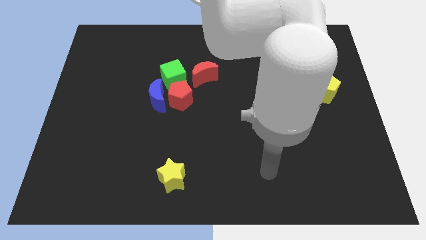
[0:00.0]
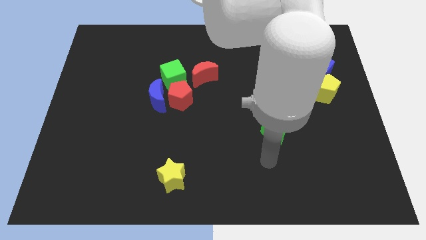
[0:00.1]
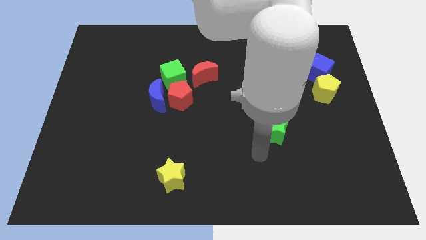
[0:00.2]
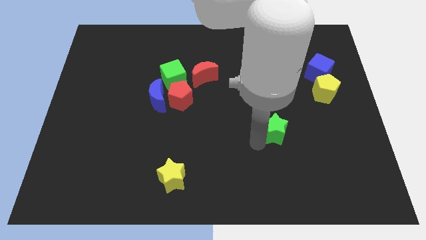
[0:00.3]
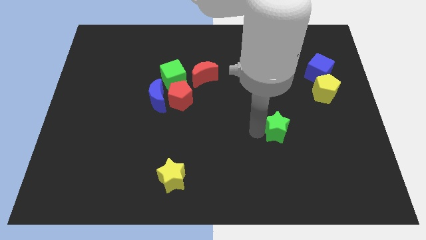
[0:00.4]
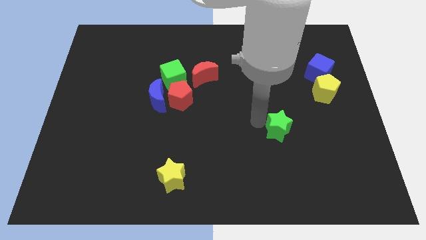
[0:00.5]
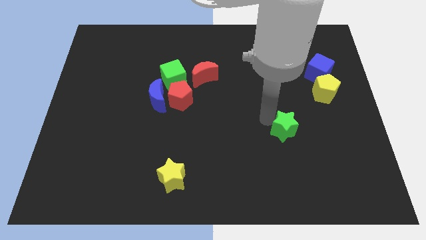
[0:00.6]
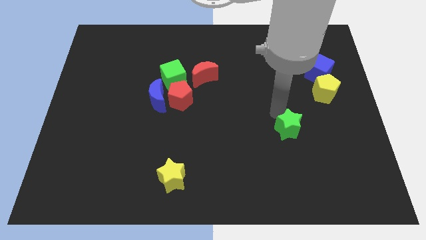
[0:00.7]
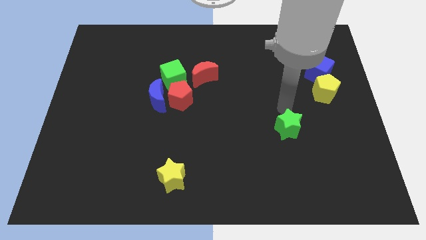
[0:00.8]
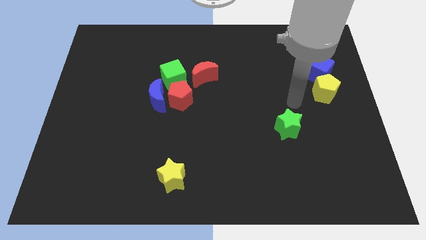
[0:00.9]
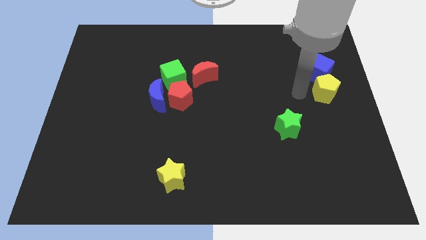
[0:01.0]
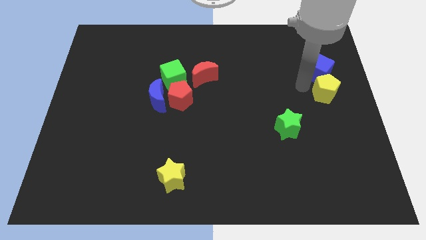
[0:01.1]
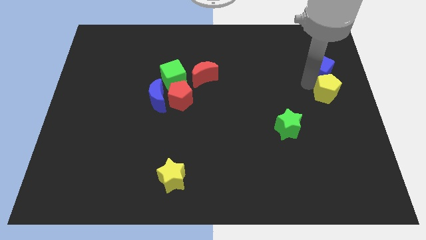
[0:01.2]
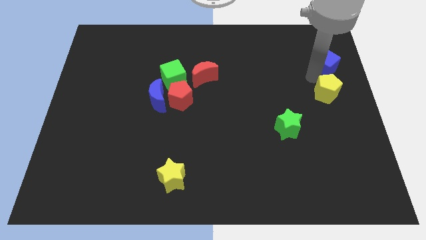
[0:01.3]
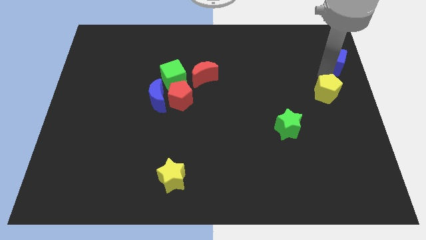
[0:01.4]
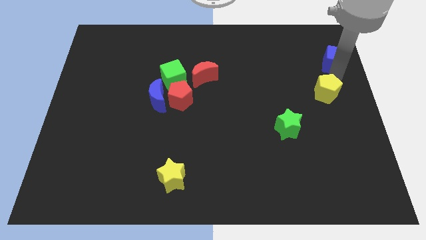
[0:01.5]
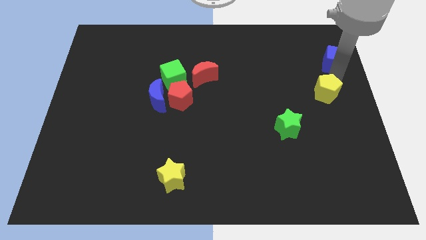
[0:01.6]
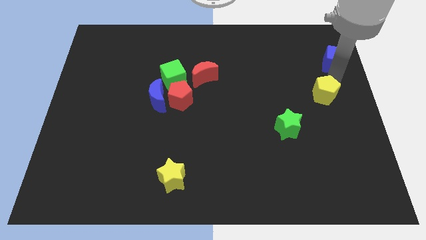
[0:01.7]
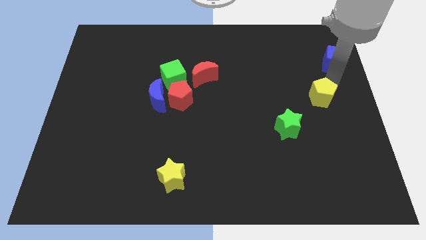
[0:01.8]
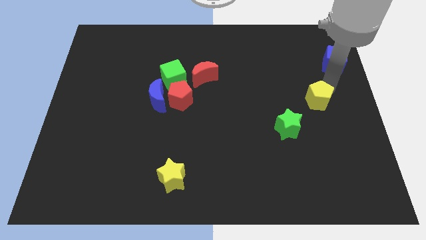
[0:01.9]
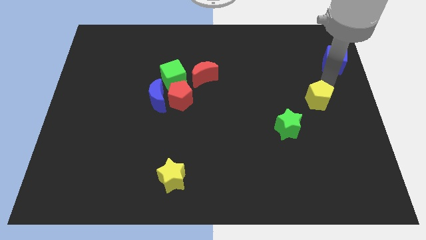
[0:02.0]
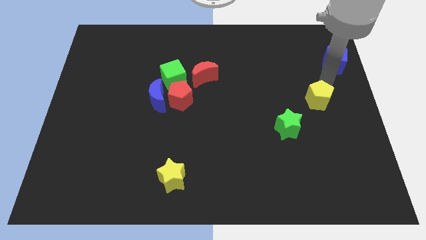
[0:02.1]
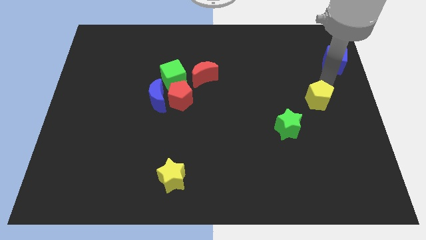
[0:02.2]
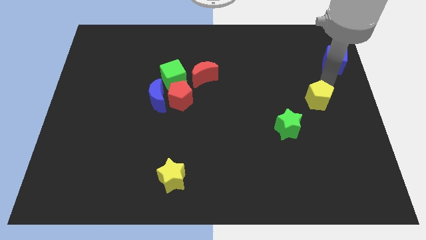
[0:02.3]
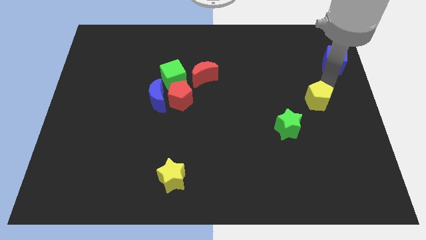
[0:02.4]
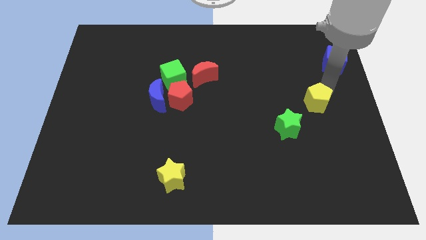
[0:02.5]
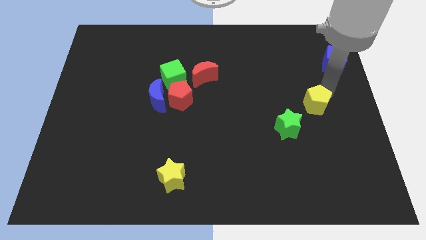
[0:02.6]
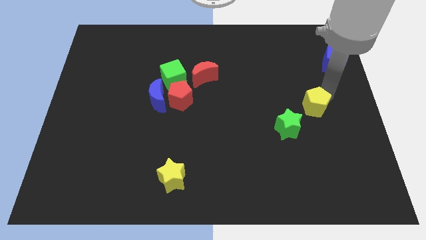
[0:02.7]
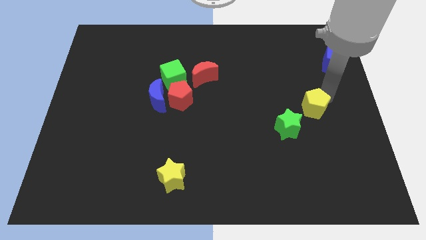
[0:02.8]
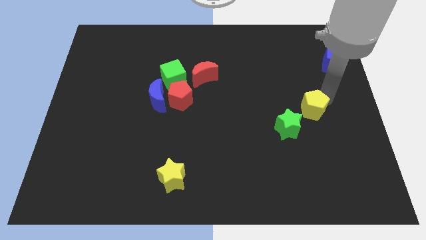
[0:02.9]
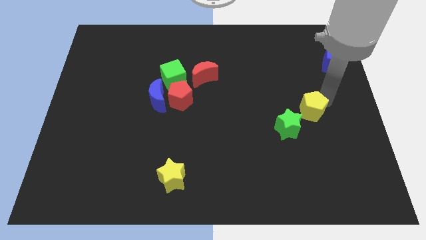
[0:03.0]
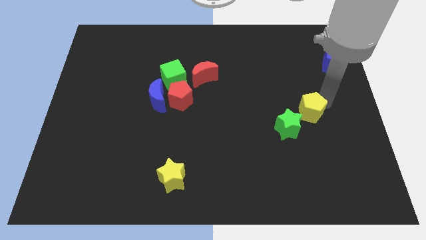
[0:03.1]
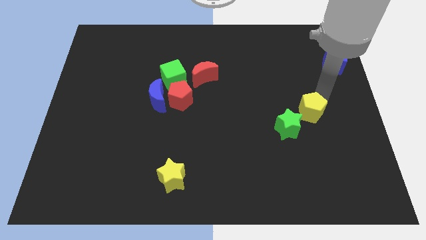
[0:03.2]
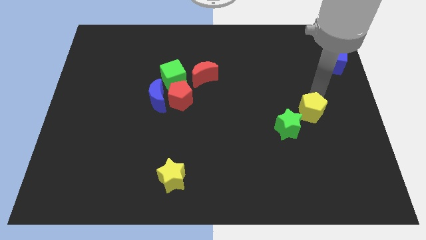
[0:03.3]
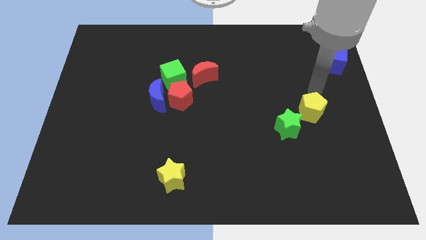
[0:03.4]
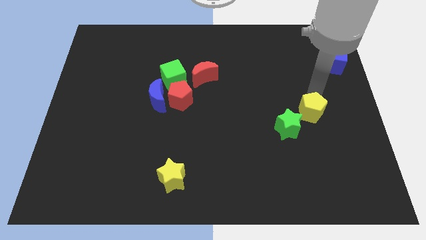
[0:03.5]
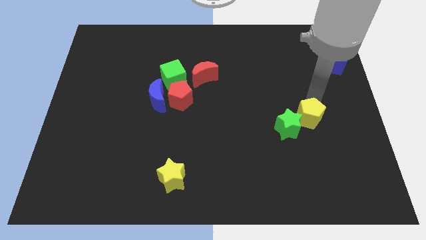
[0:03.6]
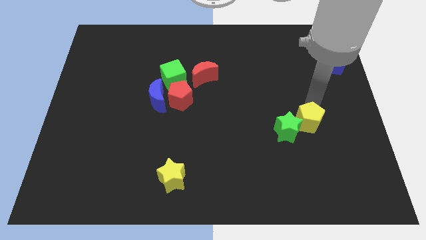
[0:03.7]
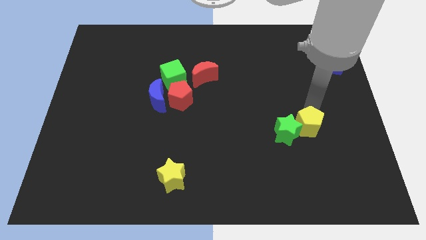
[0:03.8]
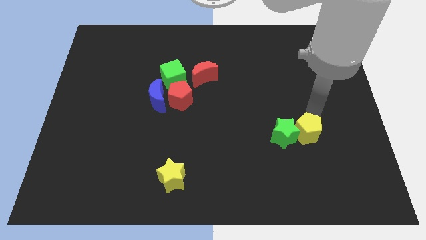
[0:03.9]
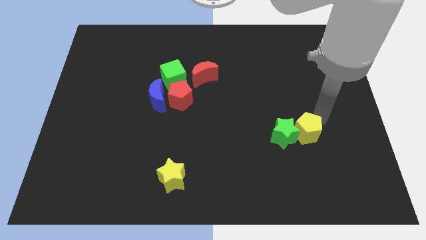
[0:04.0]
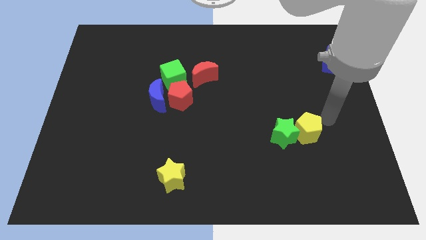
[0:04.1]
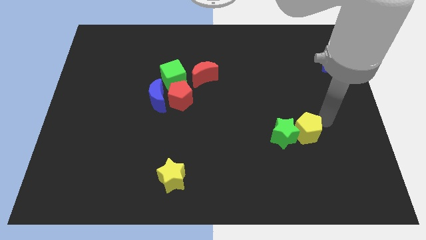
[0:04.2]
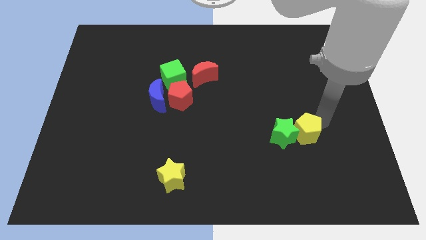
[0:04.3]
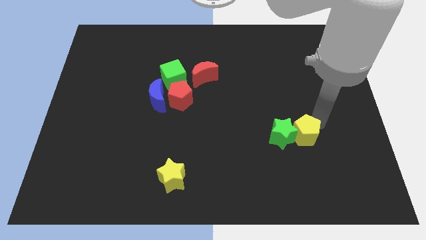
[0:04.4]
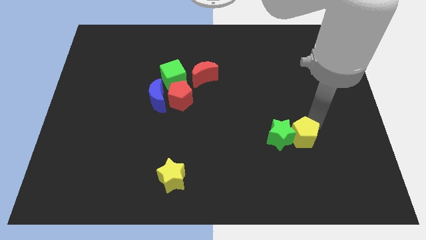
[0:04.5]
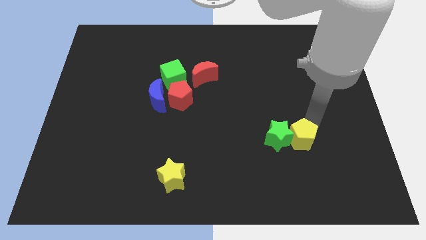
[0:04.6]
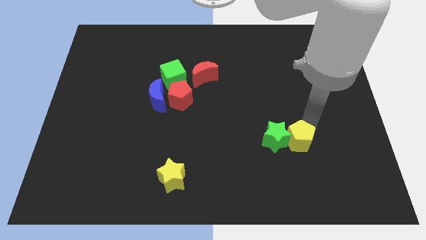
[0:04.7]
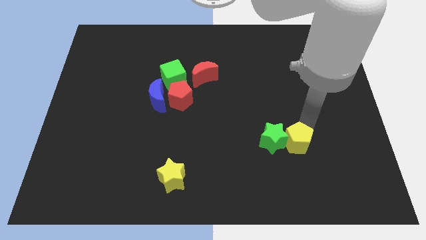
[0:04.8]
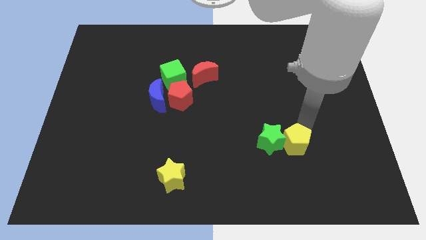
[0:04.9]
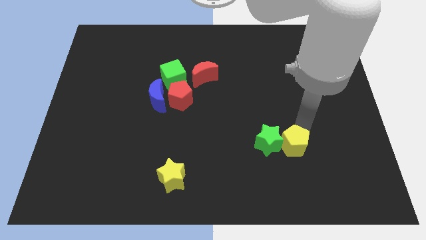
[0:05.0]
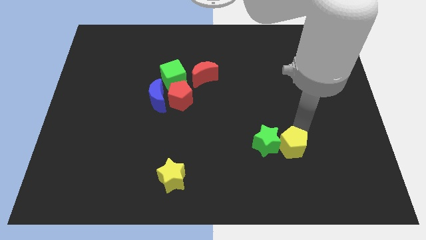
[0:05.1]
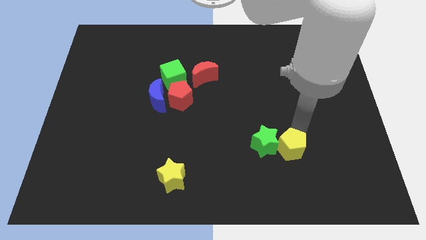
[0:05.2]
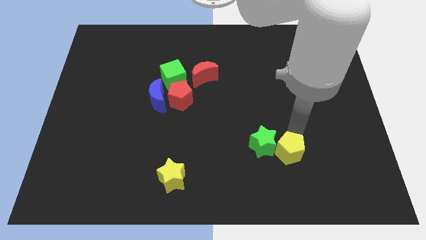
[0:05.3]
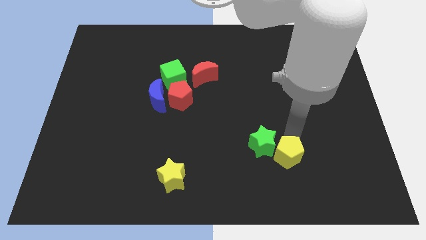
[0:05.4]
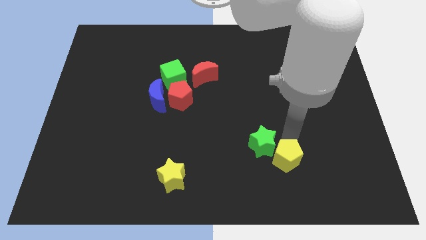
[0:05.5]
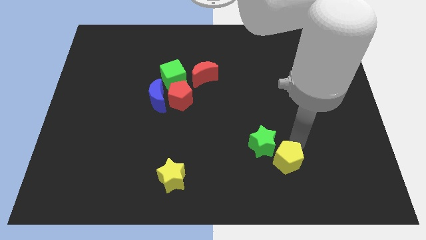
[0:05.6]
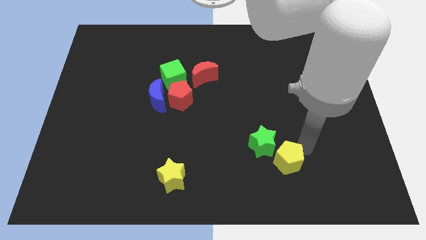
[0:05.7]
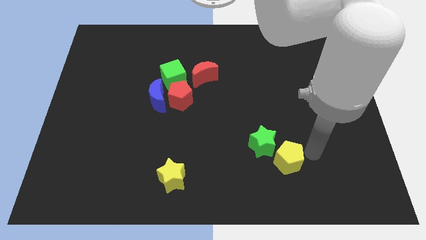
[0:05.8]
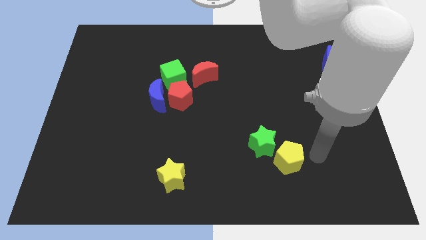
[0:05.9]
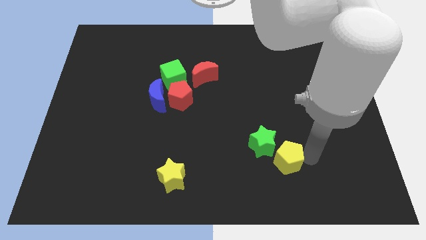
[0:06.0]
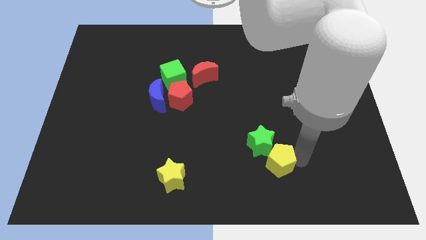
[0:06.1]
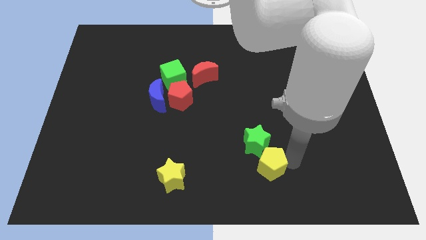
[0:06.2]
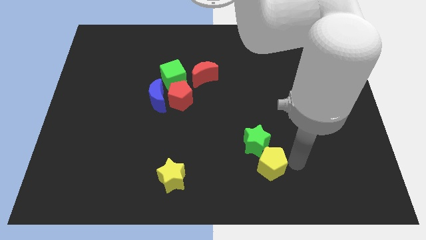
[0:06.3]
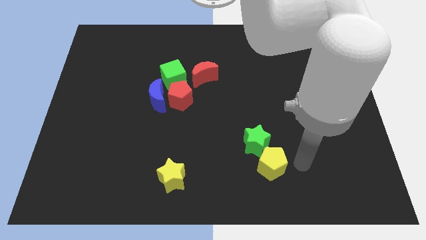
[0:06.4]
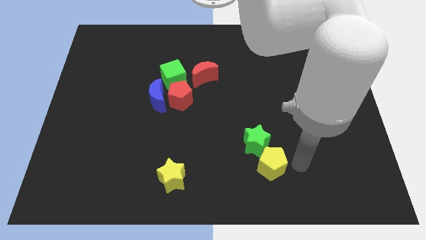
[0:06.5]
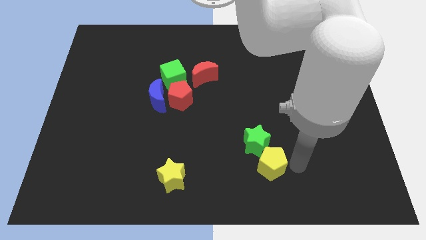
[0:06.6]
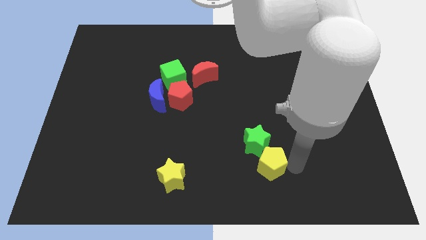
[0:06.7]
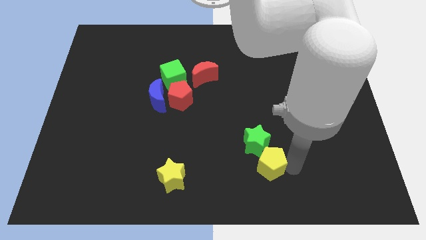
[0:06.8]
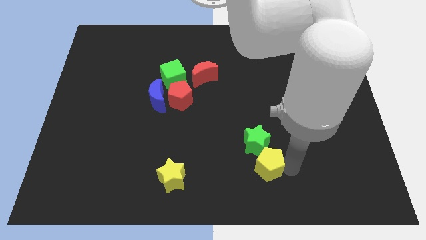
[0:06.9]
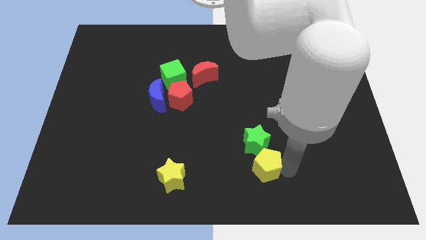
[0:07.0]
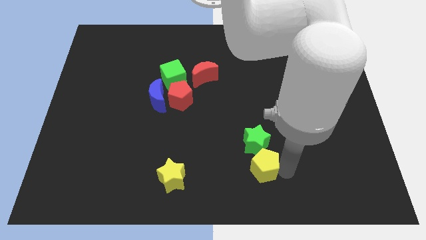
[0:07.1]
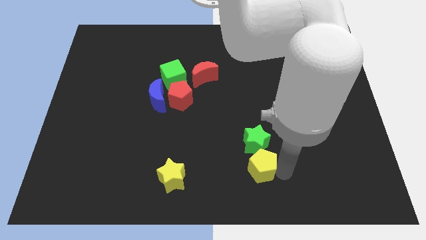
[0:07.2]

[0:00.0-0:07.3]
put the yellow pentagon to the bottom
